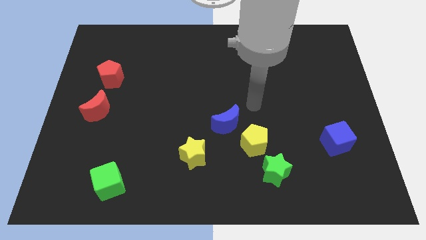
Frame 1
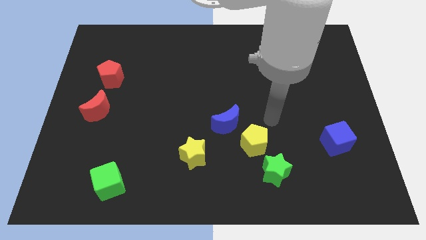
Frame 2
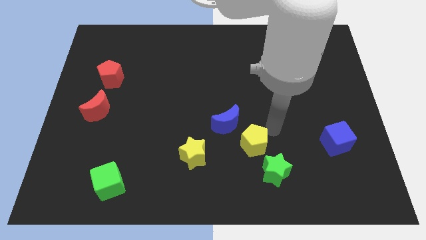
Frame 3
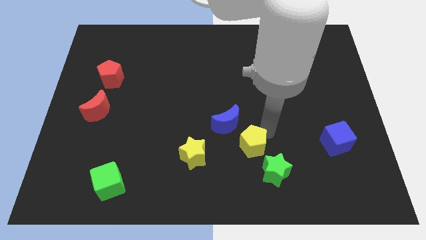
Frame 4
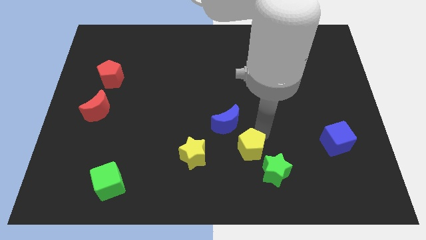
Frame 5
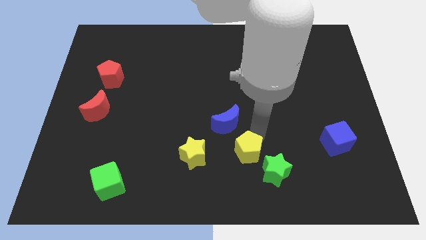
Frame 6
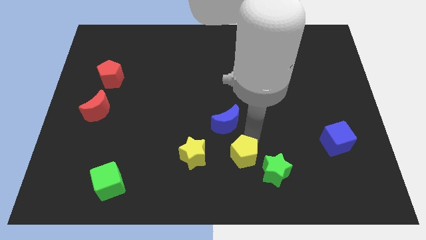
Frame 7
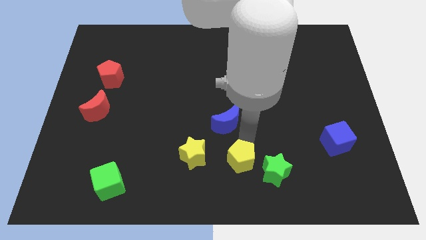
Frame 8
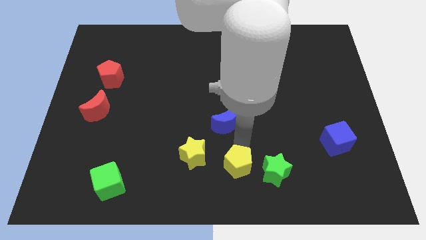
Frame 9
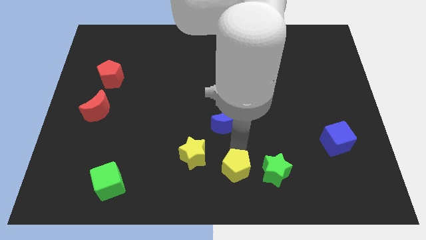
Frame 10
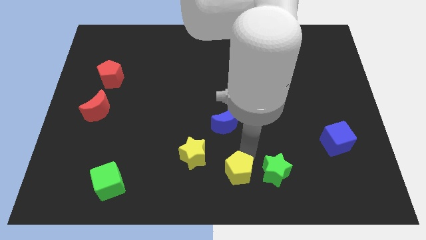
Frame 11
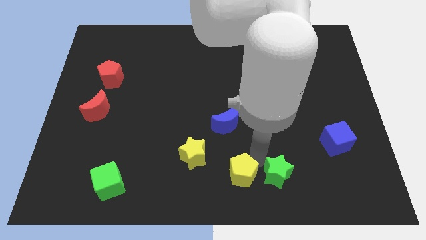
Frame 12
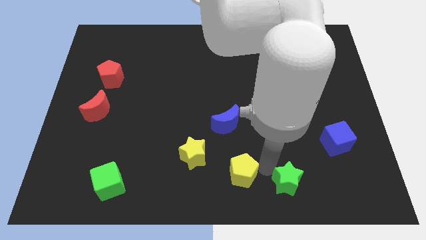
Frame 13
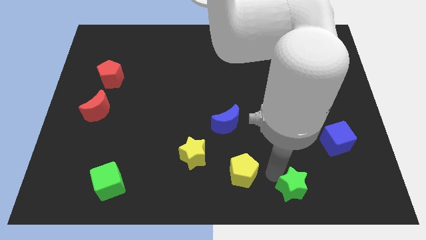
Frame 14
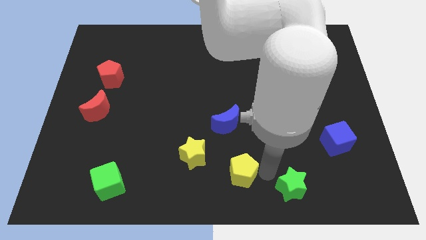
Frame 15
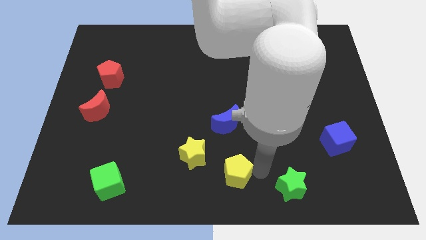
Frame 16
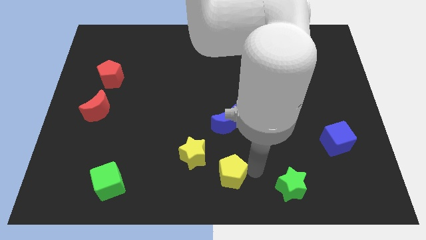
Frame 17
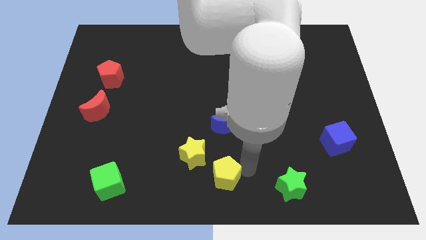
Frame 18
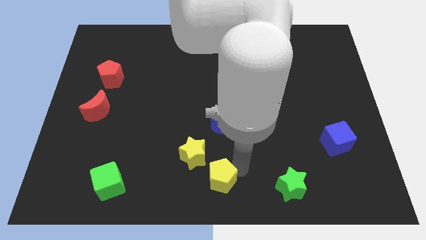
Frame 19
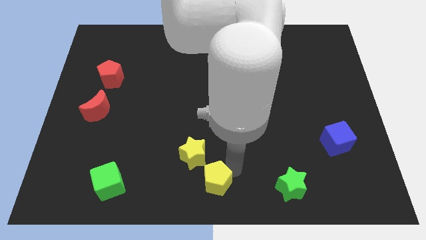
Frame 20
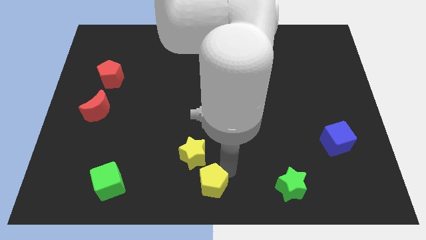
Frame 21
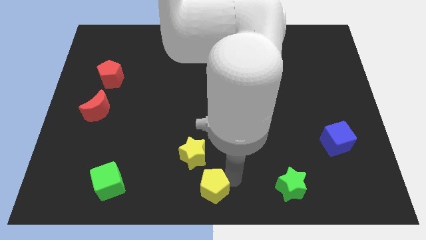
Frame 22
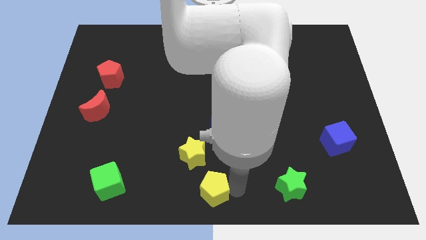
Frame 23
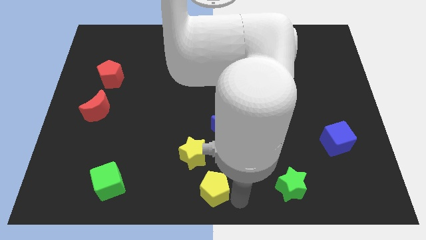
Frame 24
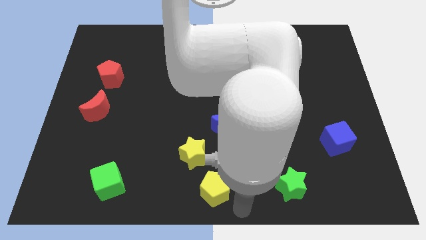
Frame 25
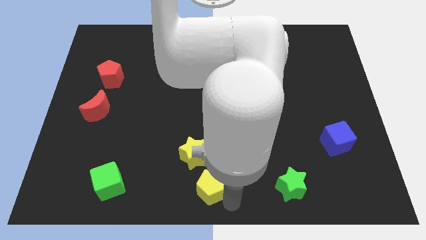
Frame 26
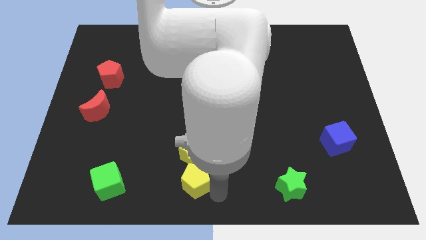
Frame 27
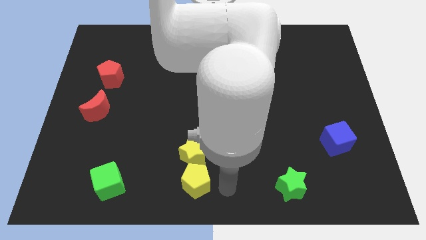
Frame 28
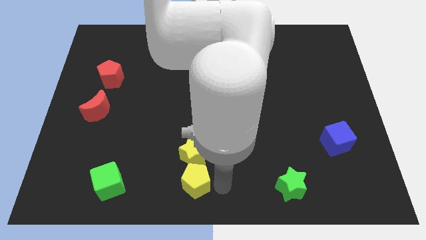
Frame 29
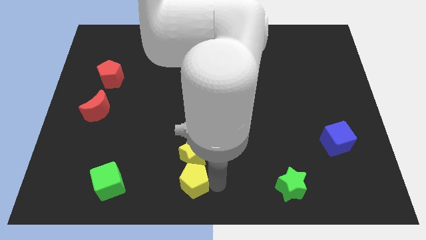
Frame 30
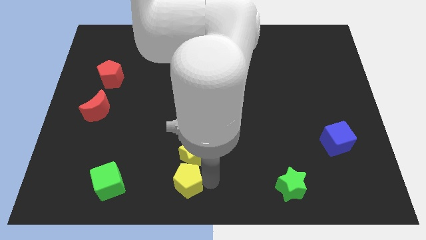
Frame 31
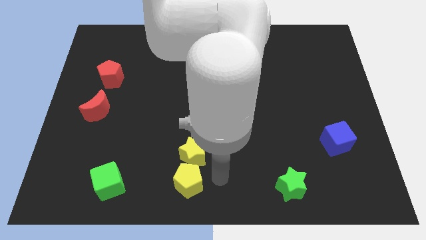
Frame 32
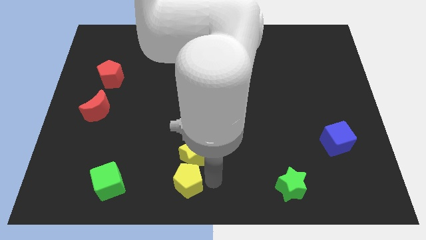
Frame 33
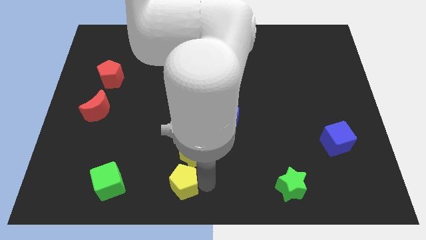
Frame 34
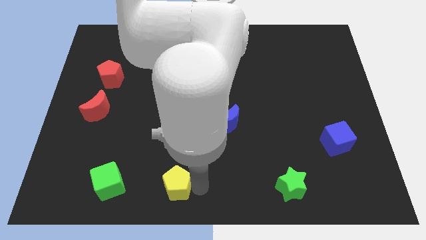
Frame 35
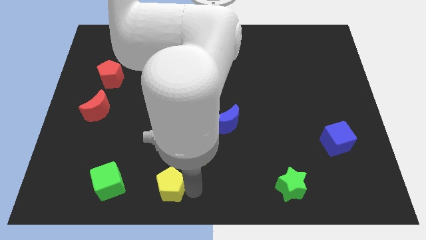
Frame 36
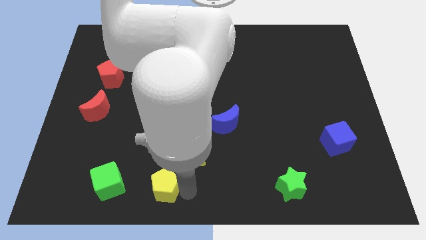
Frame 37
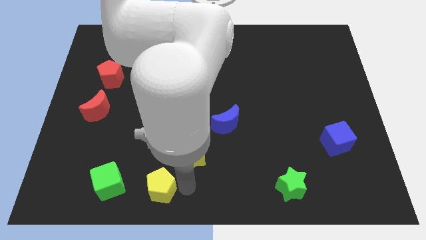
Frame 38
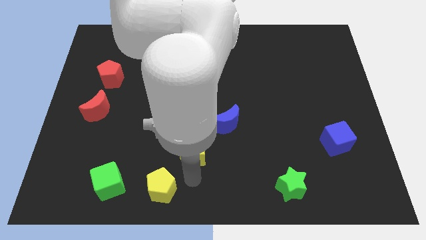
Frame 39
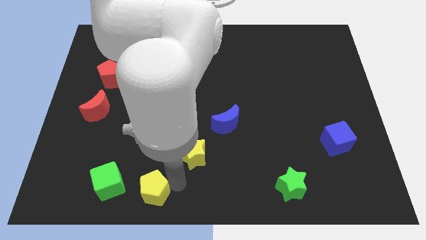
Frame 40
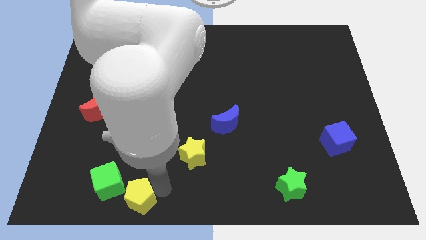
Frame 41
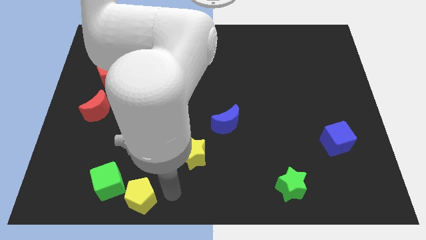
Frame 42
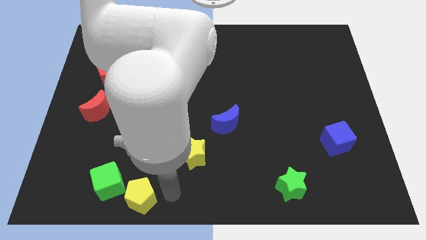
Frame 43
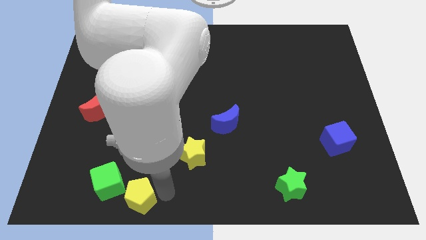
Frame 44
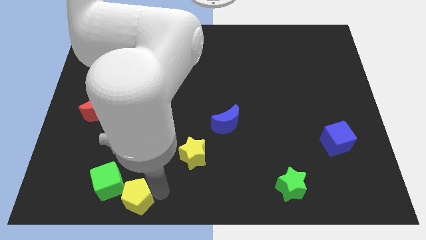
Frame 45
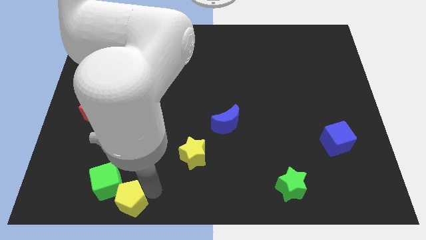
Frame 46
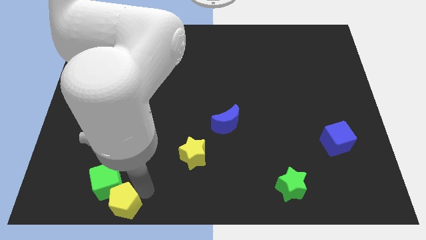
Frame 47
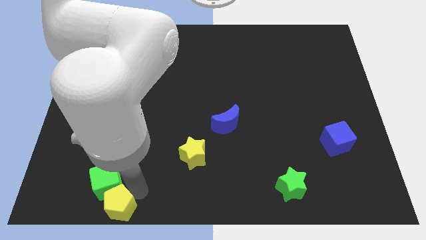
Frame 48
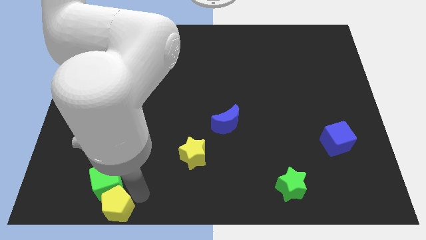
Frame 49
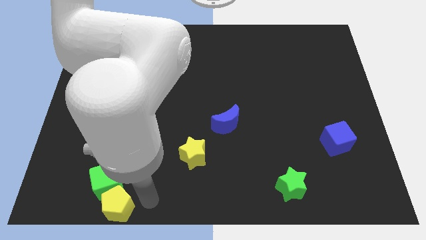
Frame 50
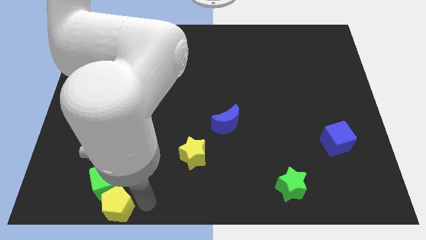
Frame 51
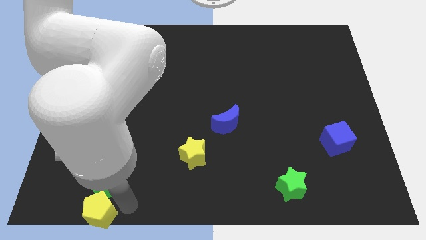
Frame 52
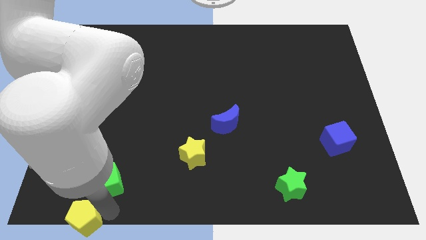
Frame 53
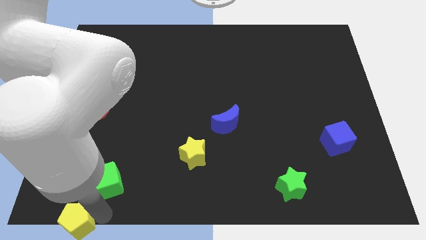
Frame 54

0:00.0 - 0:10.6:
push the yellow pentagon to the bottom left of the board

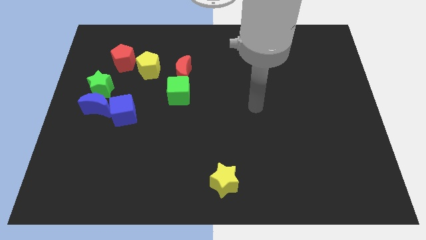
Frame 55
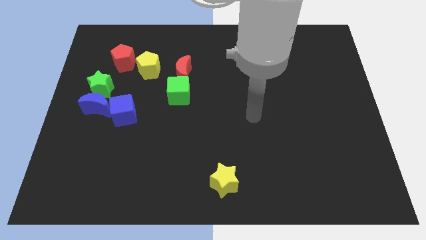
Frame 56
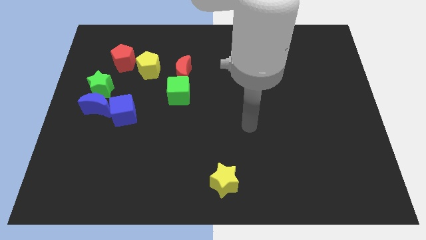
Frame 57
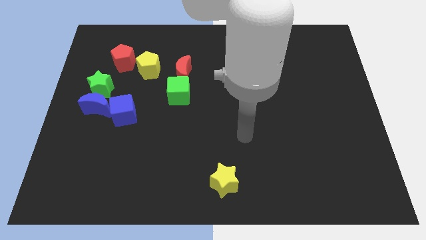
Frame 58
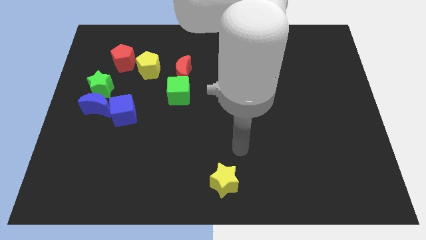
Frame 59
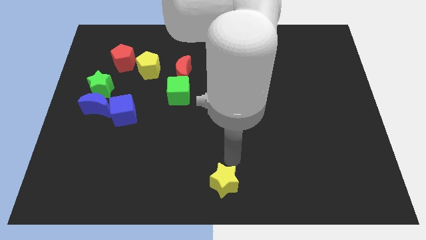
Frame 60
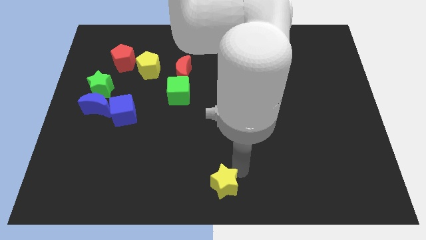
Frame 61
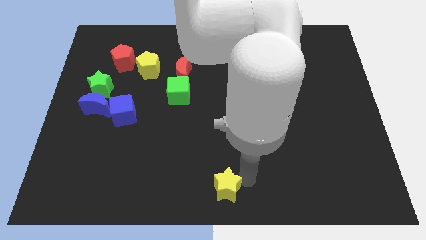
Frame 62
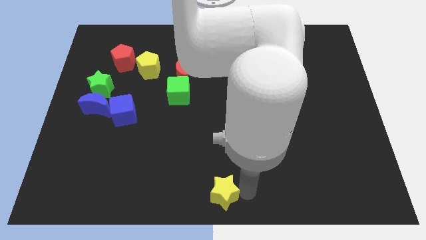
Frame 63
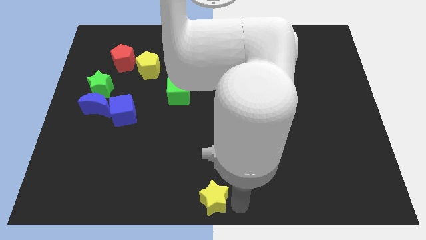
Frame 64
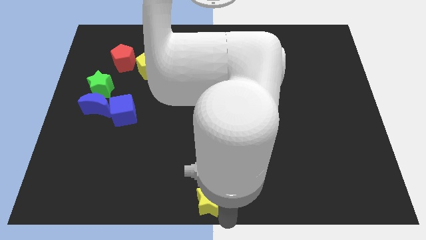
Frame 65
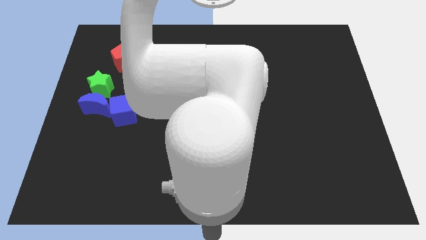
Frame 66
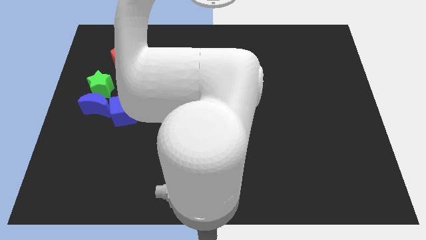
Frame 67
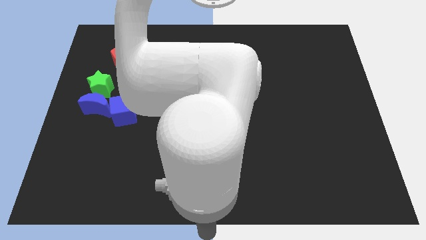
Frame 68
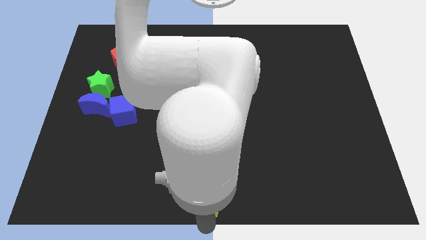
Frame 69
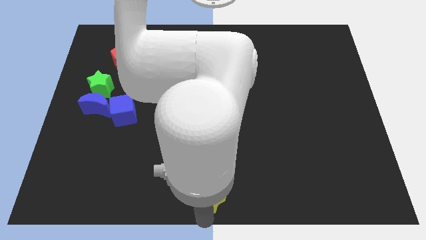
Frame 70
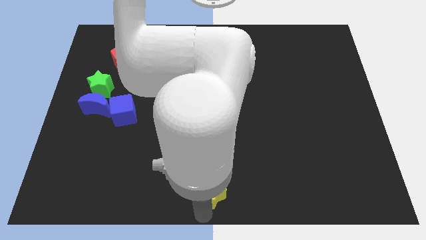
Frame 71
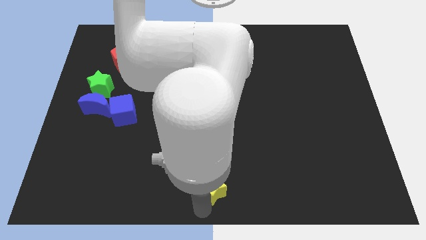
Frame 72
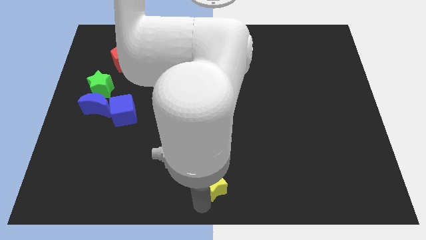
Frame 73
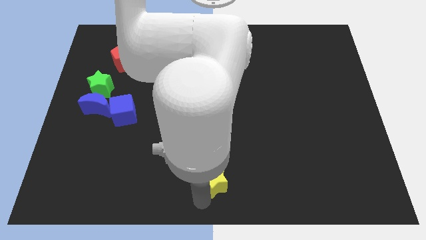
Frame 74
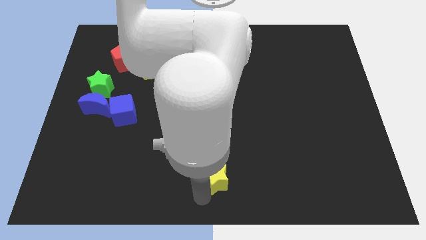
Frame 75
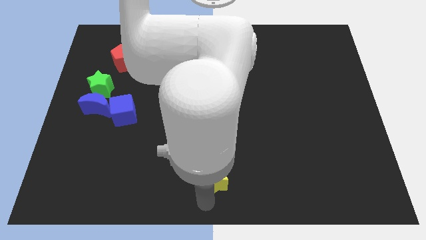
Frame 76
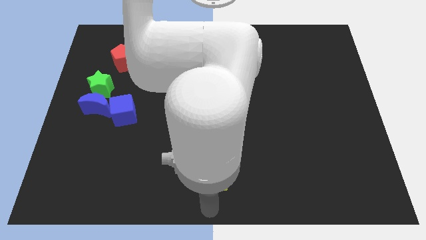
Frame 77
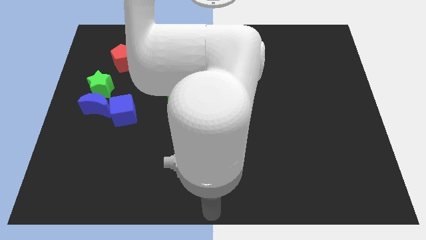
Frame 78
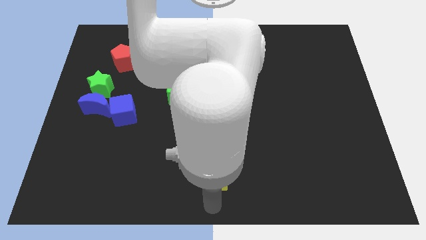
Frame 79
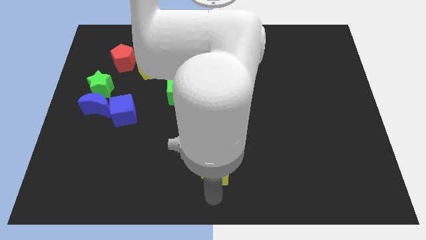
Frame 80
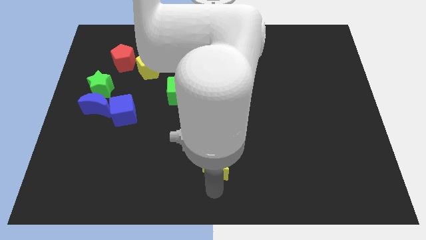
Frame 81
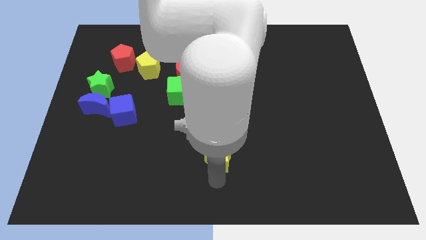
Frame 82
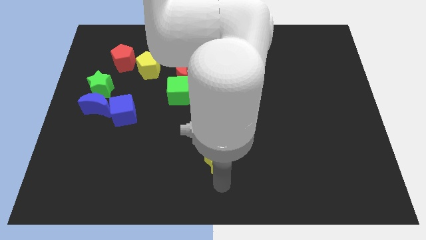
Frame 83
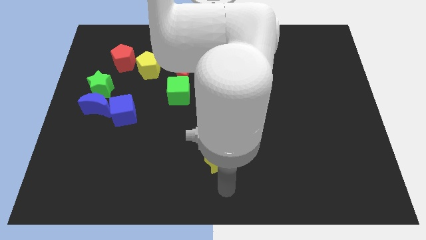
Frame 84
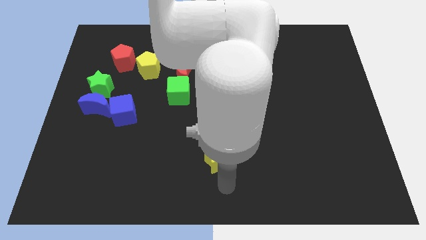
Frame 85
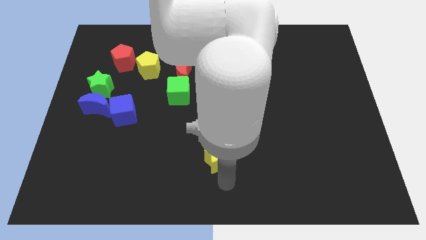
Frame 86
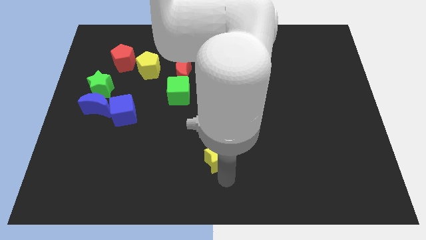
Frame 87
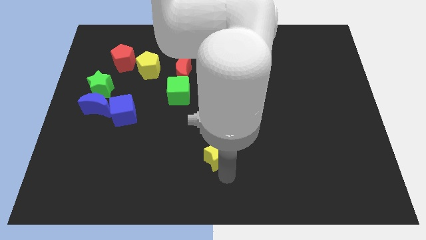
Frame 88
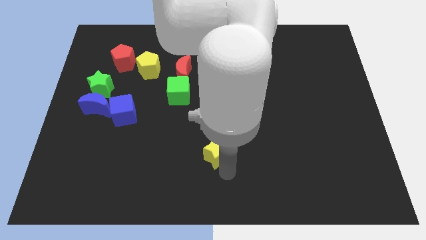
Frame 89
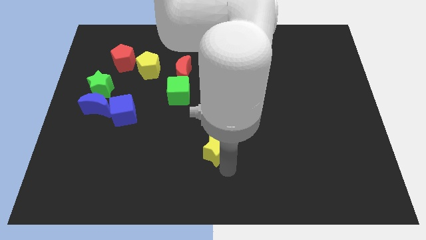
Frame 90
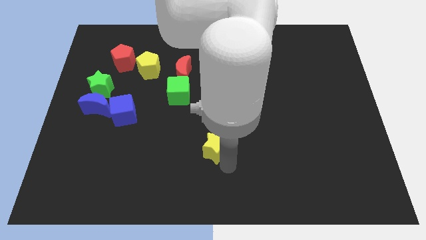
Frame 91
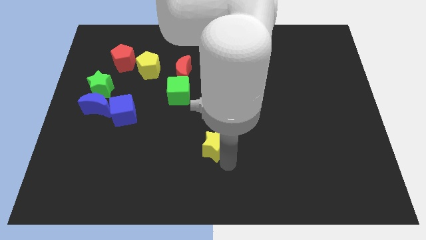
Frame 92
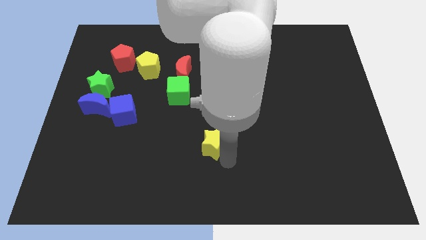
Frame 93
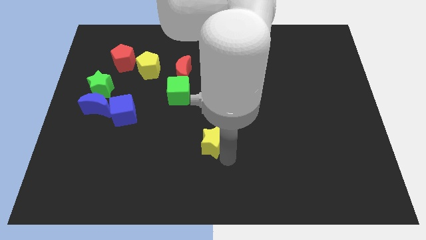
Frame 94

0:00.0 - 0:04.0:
move the yellow star to the center of the board
